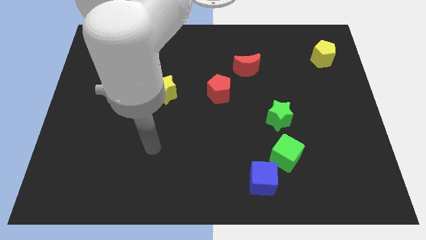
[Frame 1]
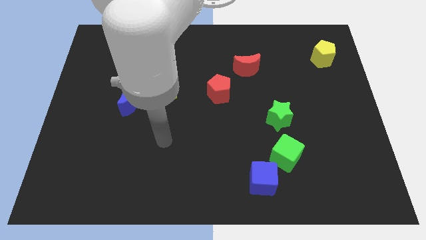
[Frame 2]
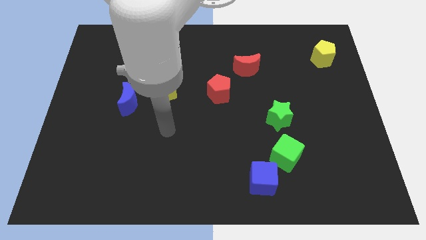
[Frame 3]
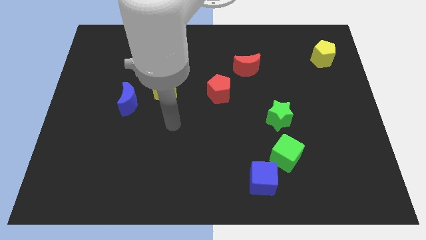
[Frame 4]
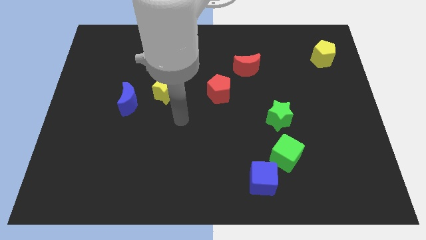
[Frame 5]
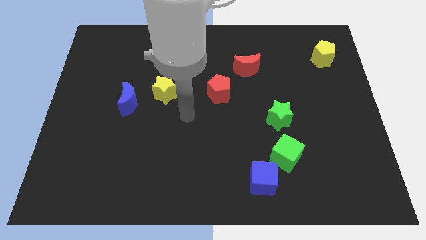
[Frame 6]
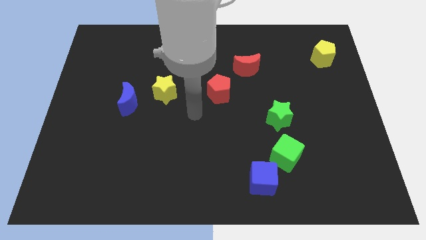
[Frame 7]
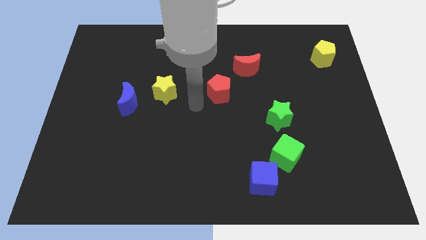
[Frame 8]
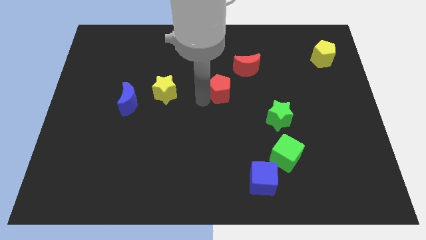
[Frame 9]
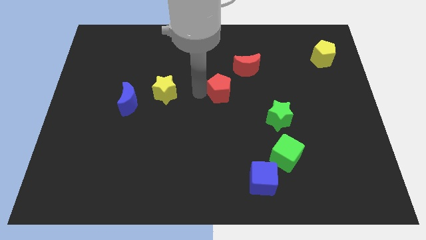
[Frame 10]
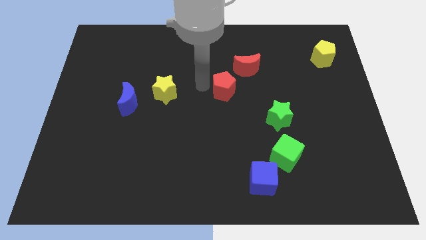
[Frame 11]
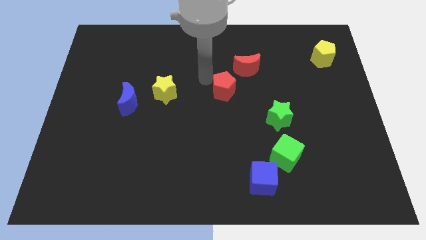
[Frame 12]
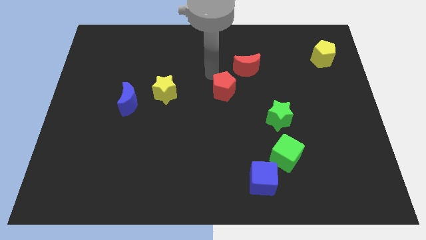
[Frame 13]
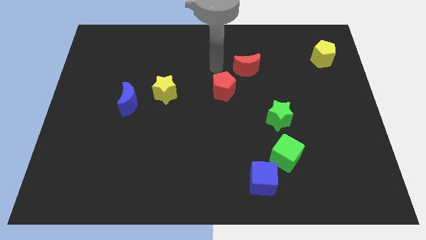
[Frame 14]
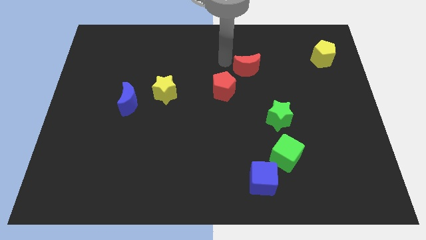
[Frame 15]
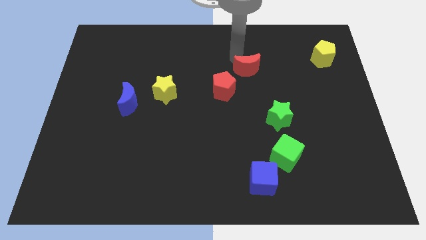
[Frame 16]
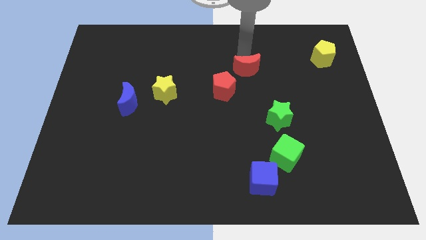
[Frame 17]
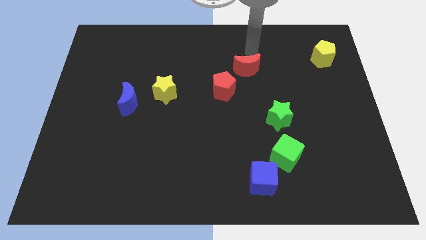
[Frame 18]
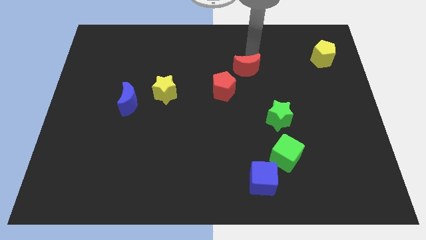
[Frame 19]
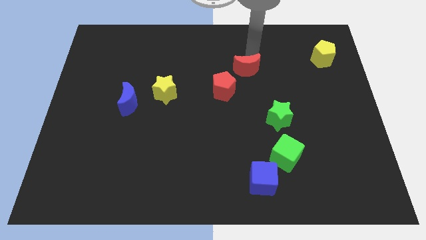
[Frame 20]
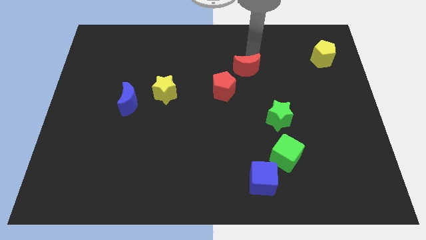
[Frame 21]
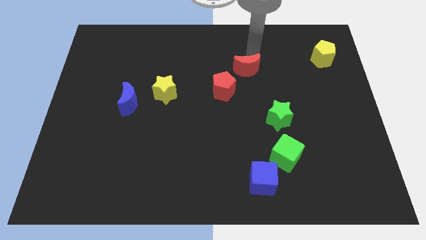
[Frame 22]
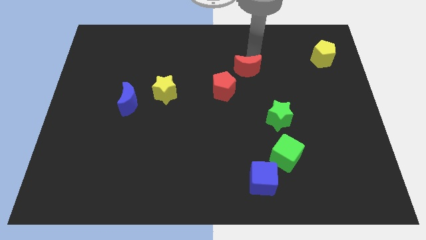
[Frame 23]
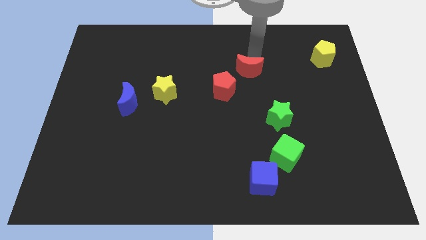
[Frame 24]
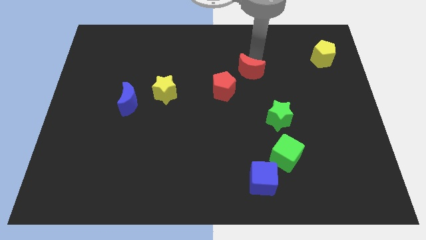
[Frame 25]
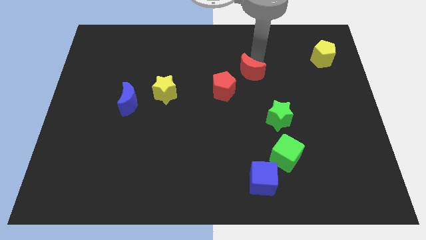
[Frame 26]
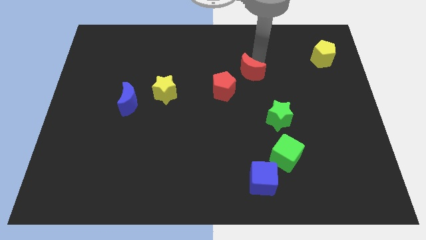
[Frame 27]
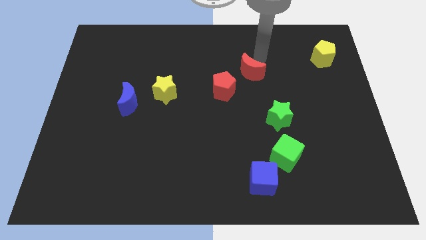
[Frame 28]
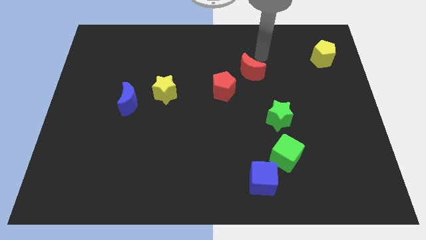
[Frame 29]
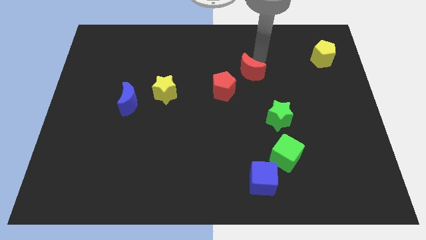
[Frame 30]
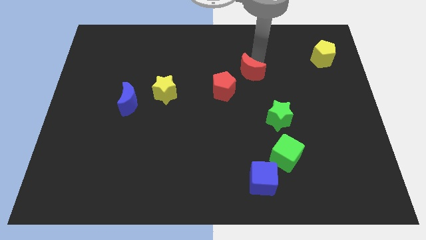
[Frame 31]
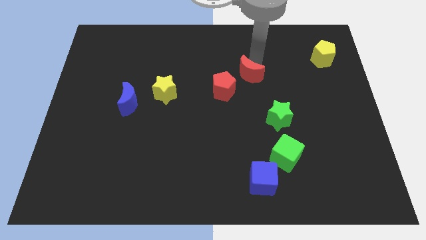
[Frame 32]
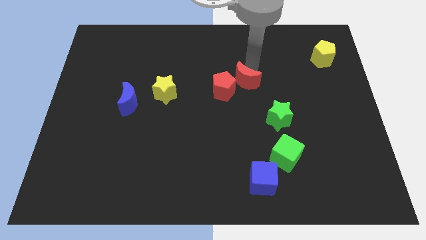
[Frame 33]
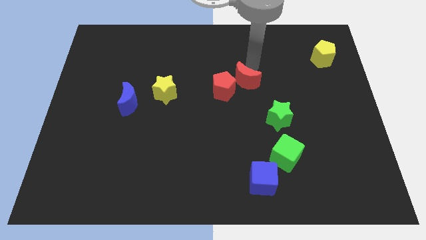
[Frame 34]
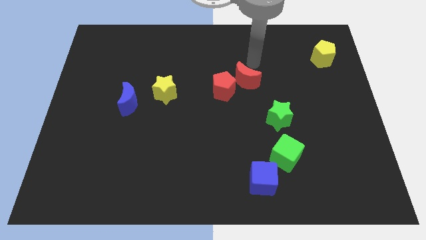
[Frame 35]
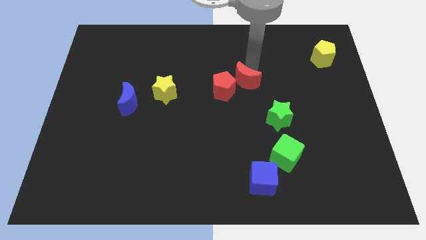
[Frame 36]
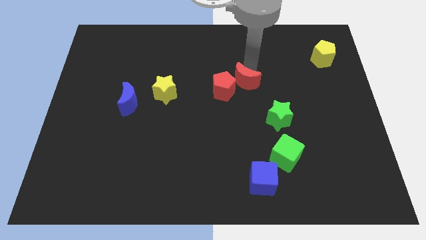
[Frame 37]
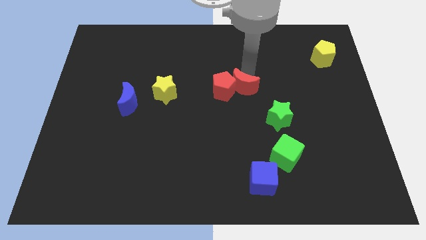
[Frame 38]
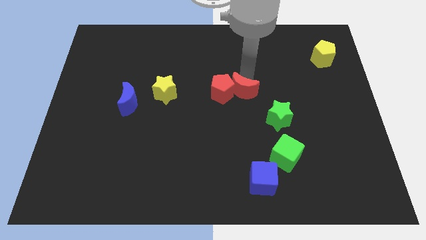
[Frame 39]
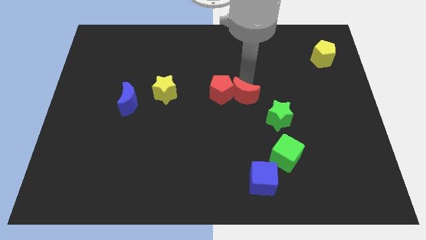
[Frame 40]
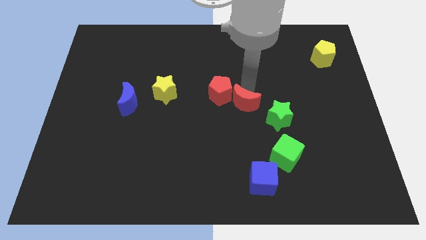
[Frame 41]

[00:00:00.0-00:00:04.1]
push the red moon diagonally downwards and left a bit

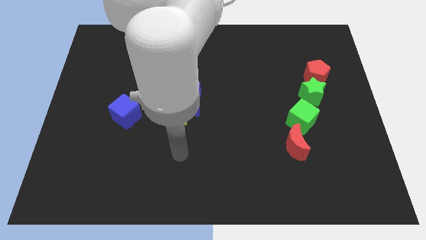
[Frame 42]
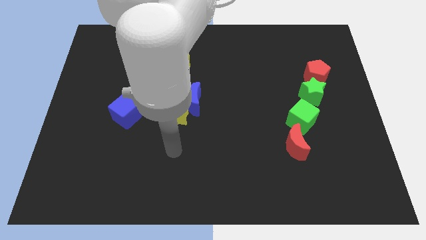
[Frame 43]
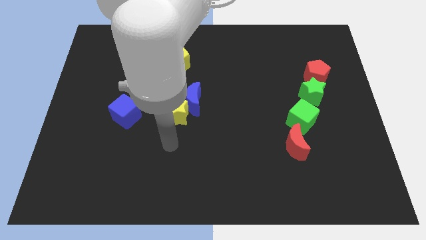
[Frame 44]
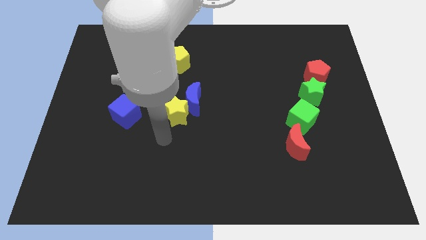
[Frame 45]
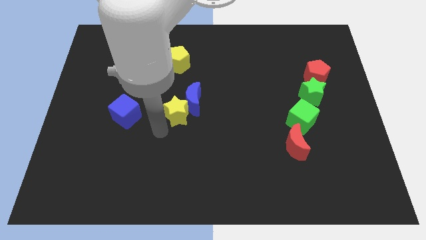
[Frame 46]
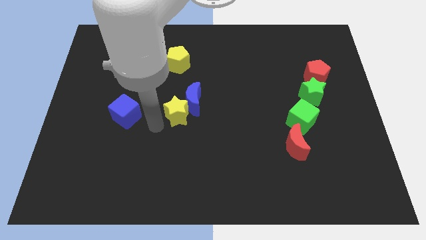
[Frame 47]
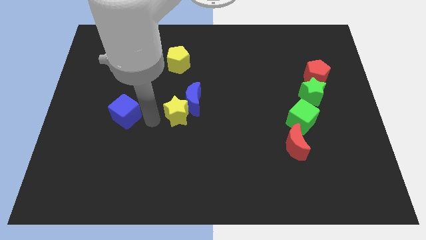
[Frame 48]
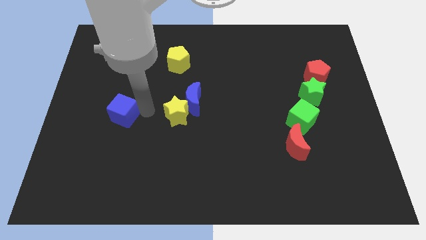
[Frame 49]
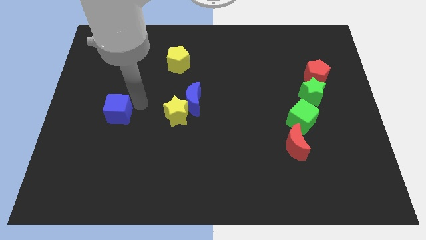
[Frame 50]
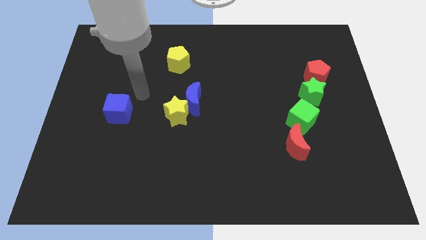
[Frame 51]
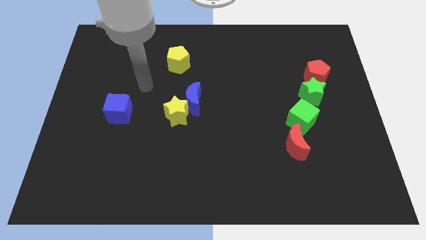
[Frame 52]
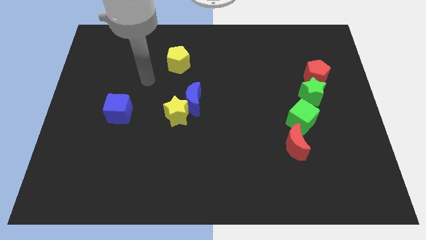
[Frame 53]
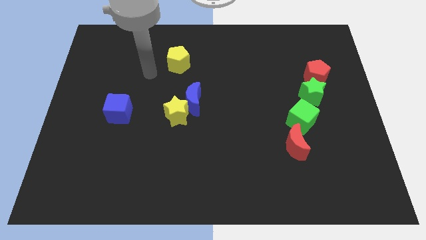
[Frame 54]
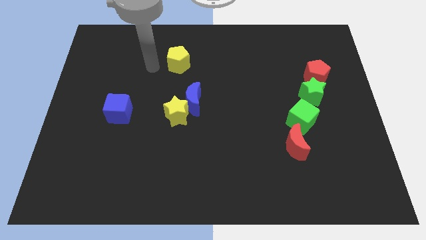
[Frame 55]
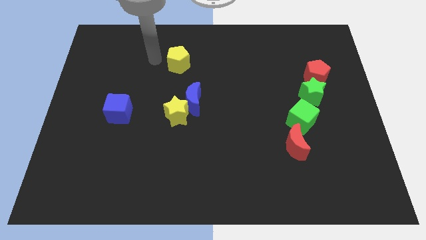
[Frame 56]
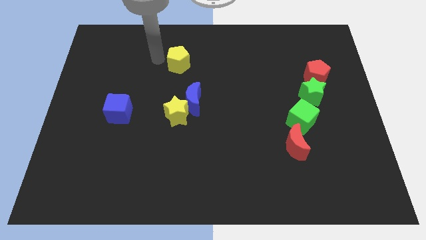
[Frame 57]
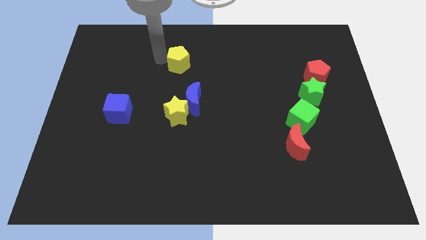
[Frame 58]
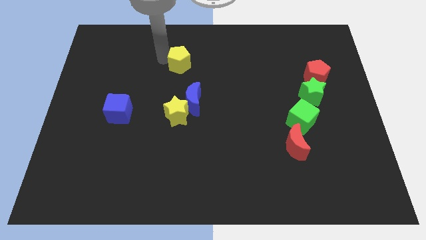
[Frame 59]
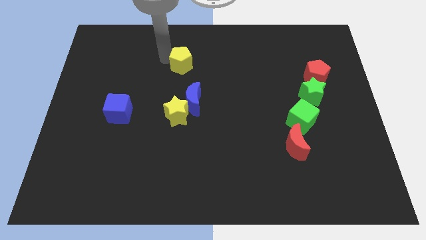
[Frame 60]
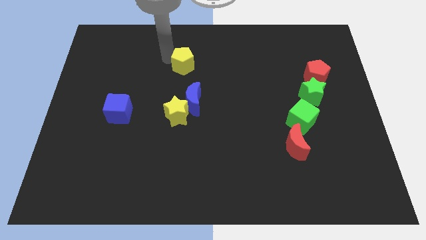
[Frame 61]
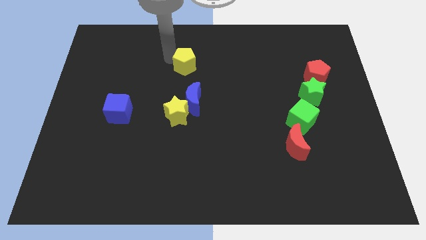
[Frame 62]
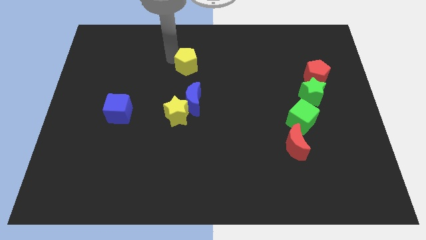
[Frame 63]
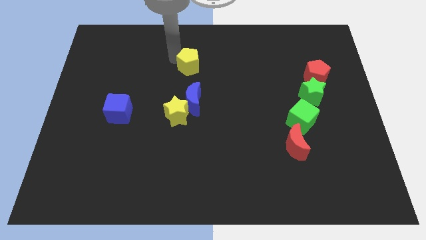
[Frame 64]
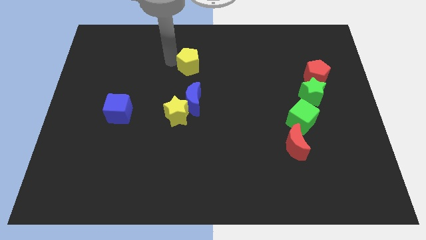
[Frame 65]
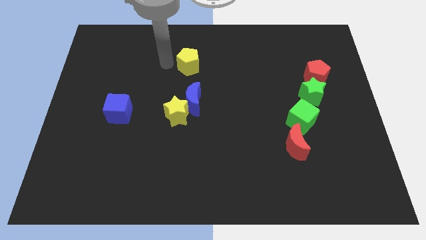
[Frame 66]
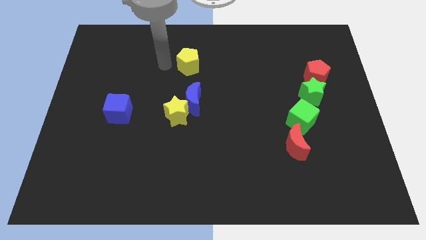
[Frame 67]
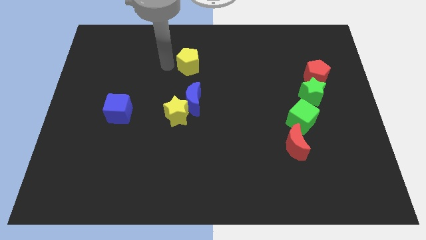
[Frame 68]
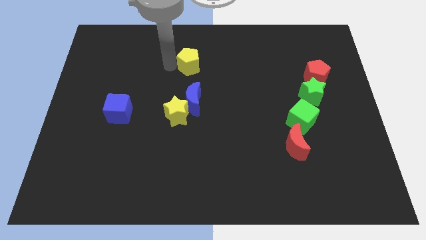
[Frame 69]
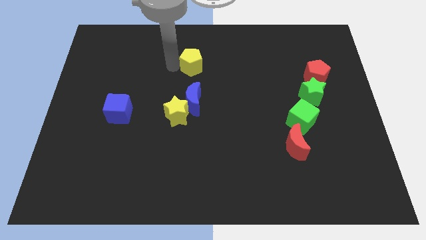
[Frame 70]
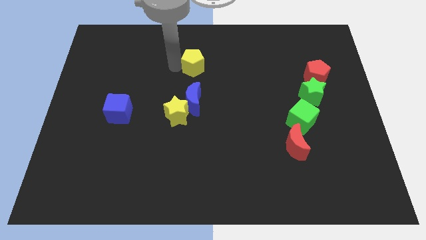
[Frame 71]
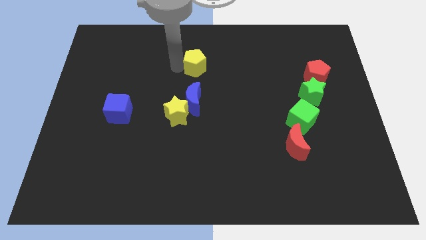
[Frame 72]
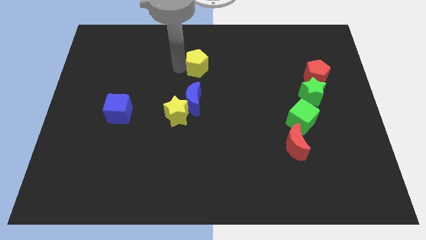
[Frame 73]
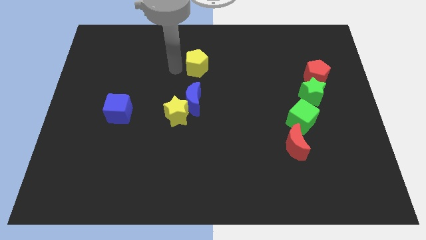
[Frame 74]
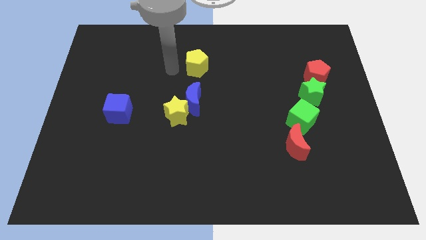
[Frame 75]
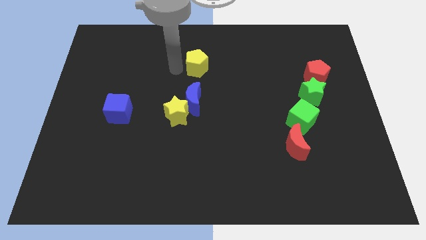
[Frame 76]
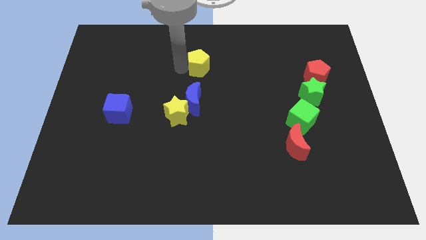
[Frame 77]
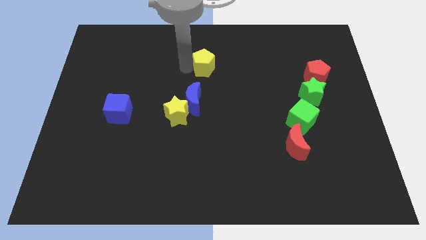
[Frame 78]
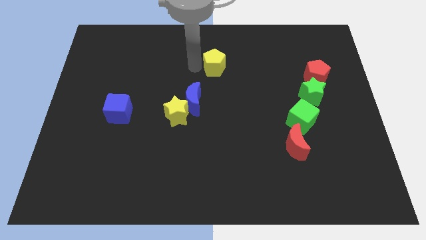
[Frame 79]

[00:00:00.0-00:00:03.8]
push the yellow pentagon somewhat right

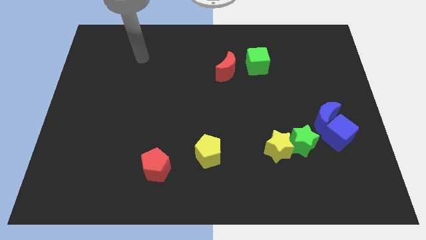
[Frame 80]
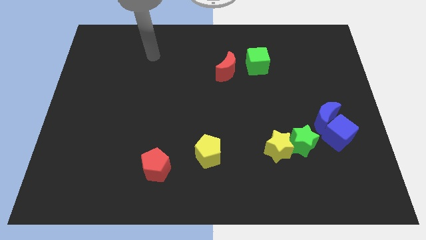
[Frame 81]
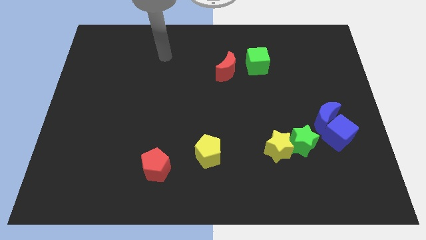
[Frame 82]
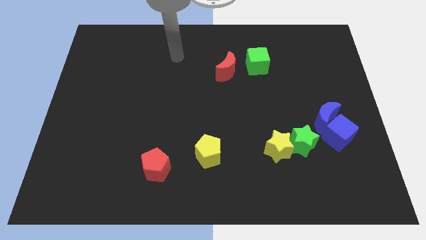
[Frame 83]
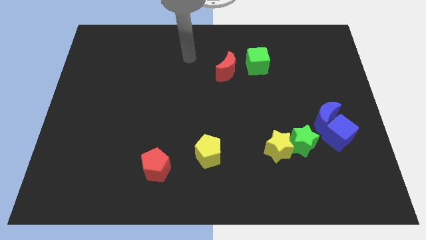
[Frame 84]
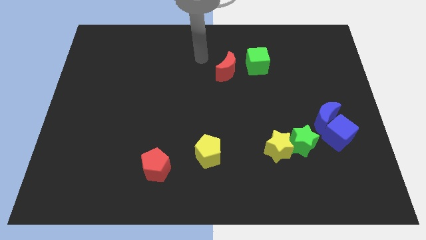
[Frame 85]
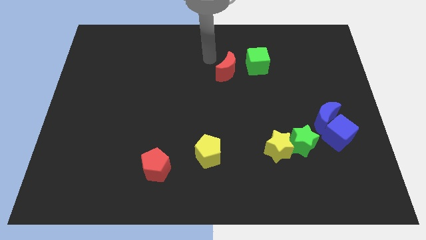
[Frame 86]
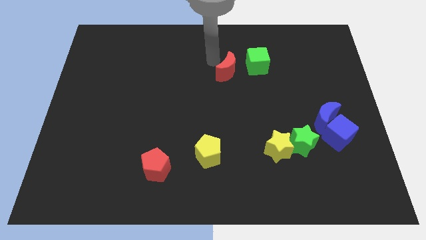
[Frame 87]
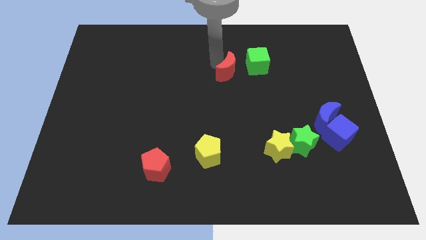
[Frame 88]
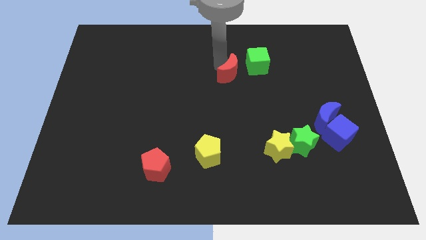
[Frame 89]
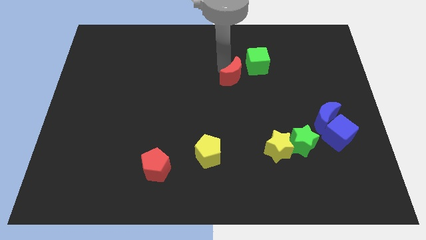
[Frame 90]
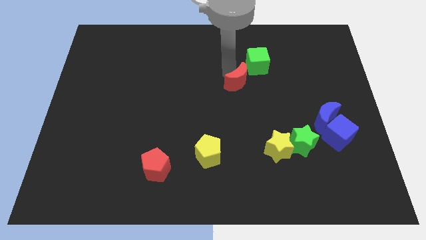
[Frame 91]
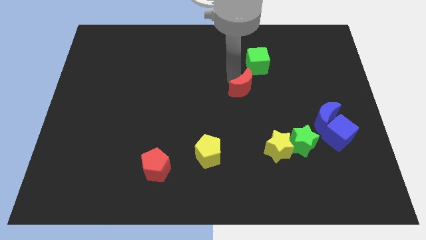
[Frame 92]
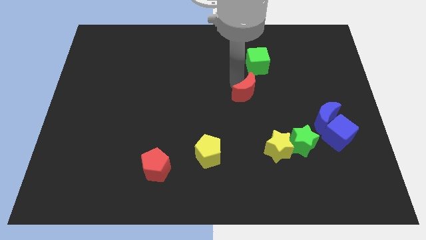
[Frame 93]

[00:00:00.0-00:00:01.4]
slide the red moon down and then to the right a bit
